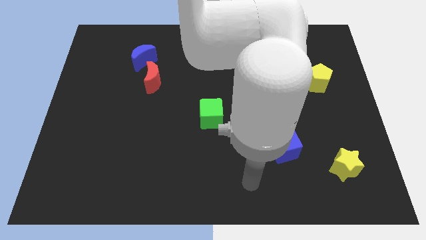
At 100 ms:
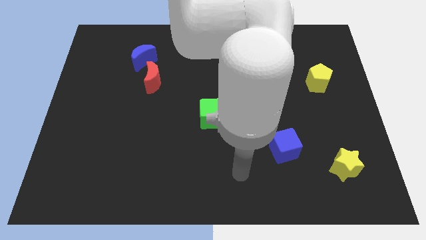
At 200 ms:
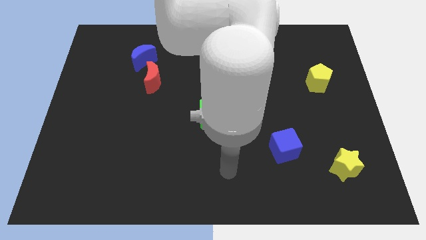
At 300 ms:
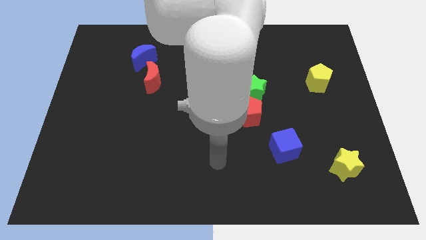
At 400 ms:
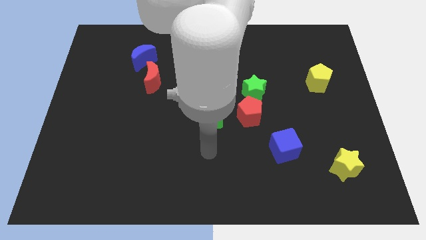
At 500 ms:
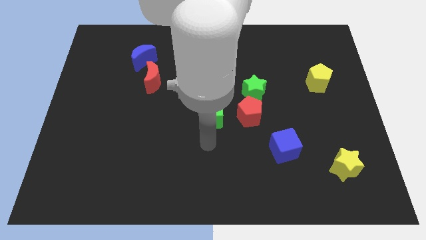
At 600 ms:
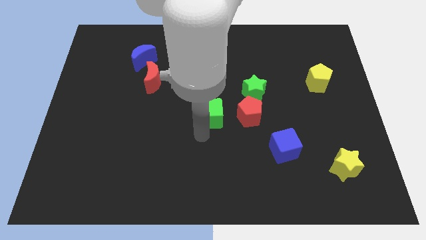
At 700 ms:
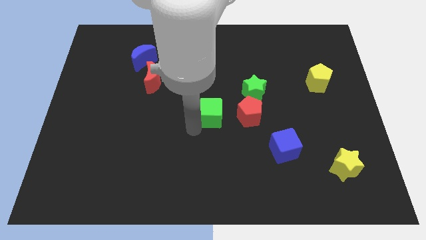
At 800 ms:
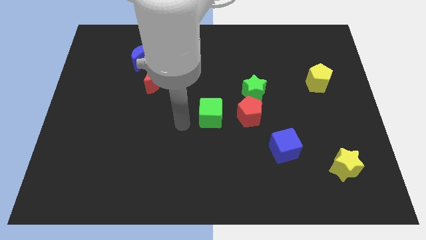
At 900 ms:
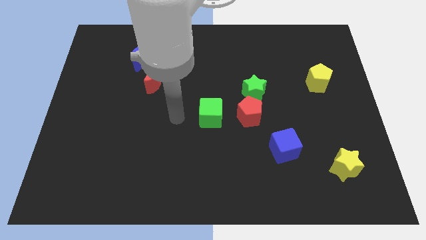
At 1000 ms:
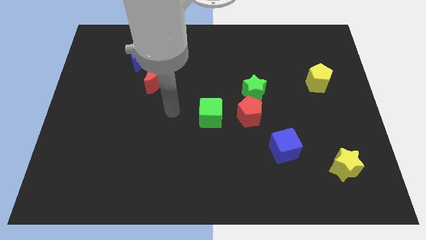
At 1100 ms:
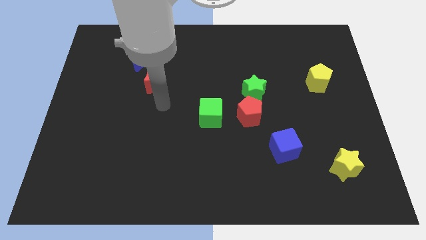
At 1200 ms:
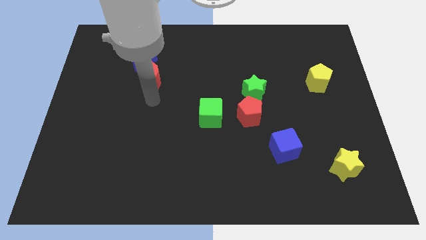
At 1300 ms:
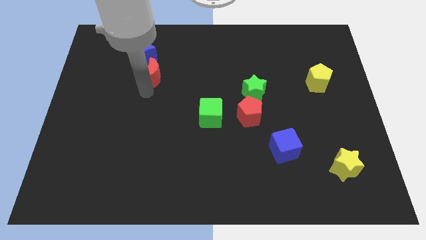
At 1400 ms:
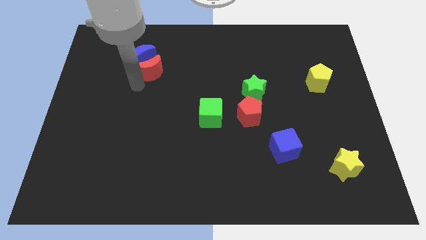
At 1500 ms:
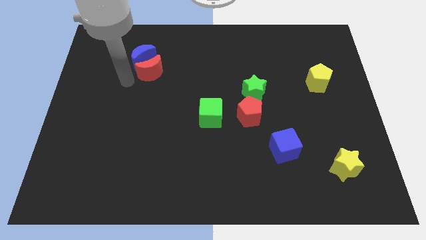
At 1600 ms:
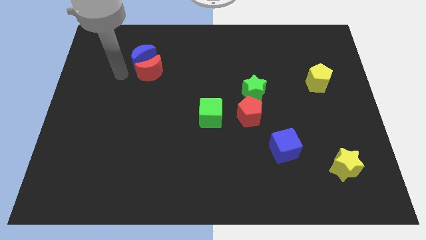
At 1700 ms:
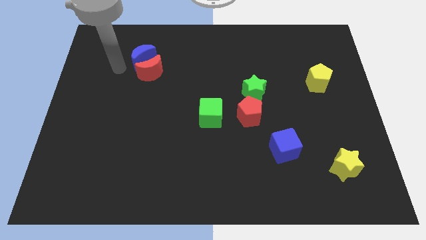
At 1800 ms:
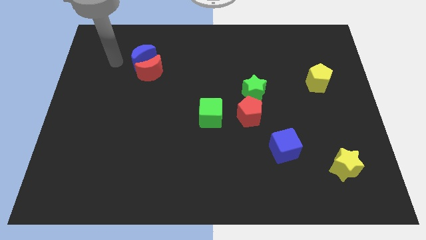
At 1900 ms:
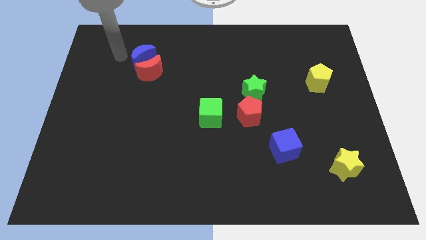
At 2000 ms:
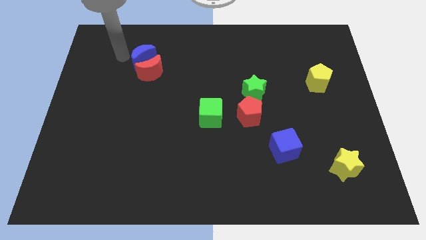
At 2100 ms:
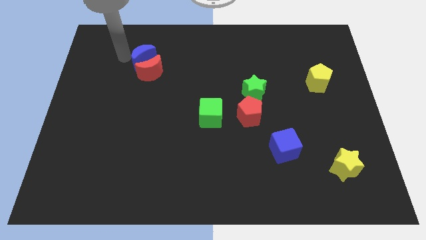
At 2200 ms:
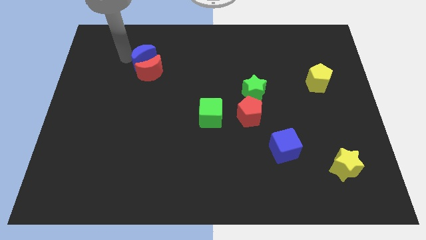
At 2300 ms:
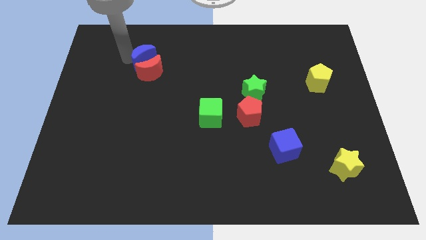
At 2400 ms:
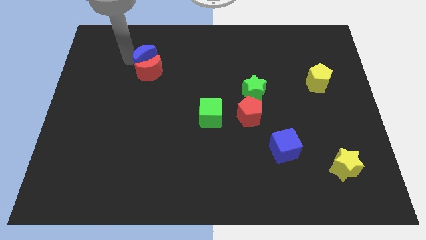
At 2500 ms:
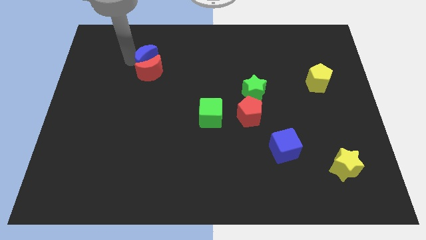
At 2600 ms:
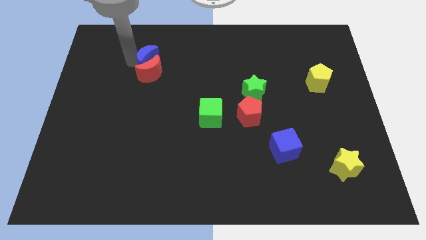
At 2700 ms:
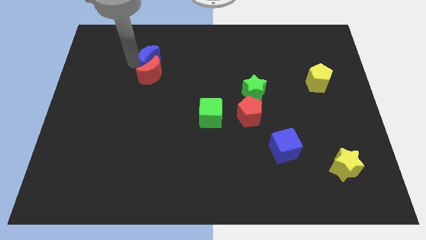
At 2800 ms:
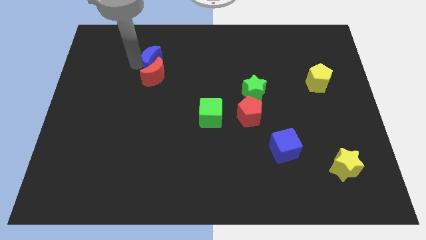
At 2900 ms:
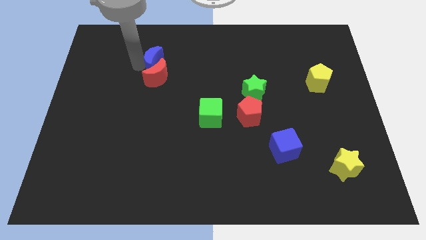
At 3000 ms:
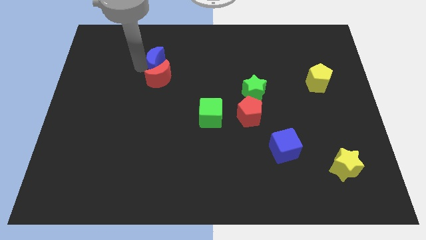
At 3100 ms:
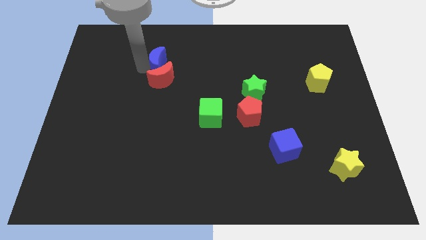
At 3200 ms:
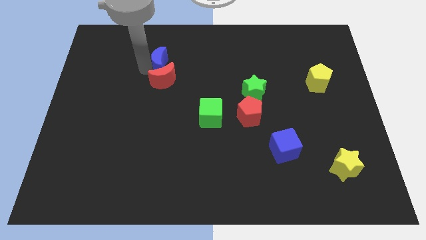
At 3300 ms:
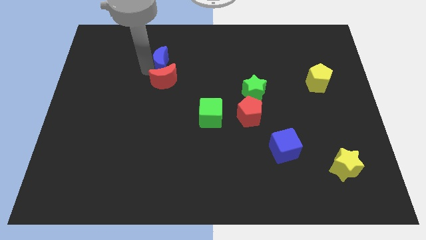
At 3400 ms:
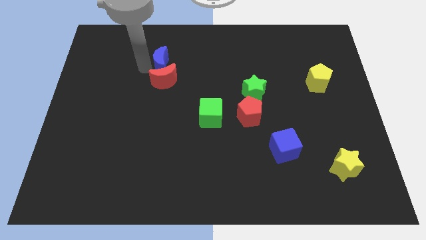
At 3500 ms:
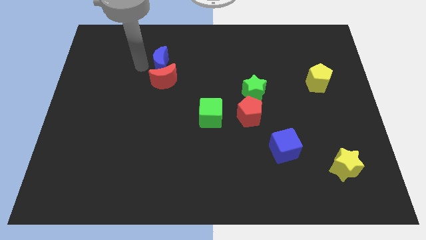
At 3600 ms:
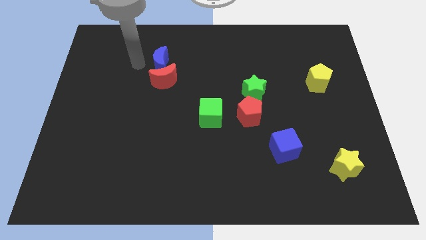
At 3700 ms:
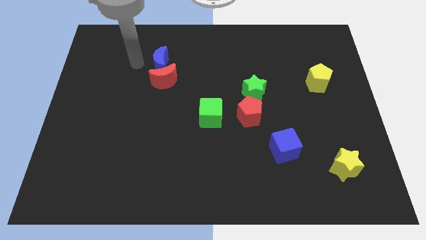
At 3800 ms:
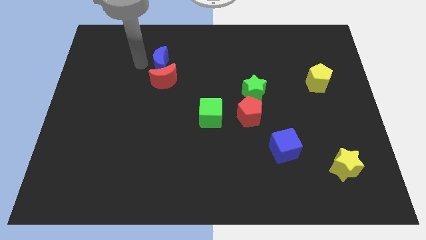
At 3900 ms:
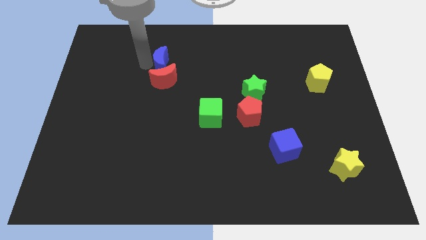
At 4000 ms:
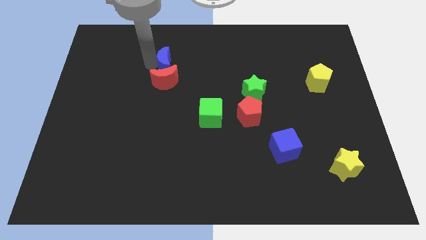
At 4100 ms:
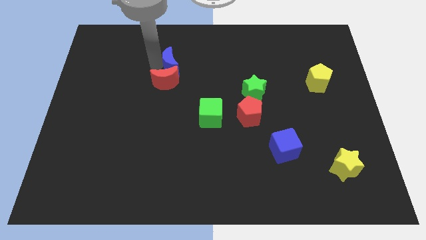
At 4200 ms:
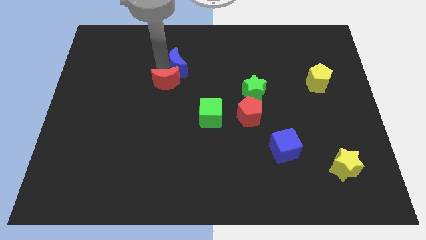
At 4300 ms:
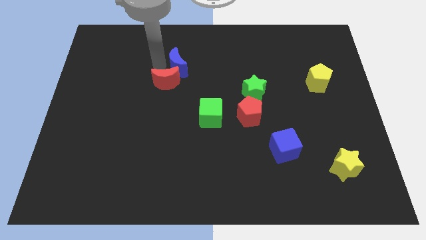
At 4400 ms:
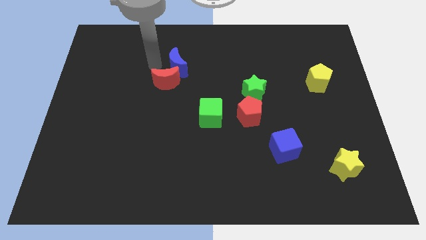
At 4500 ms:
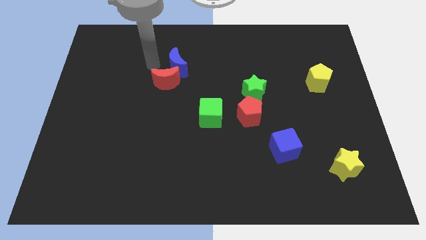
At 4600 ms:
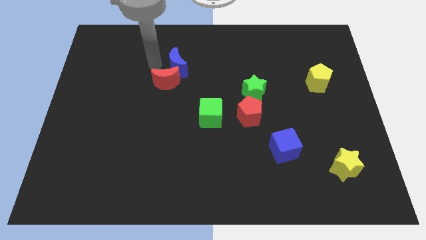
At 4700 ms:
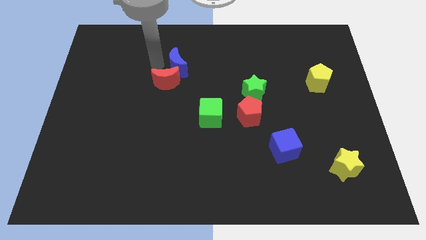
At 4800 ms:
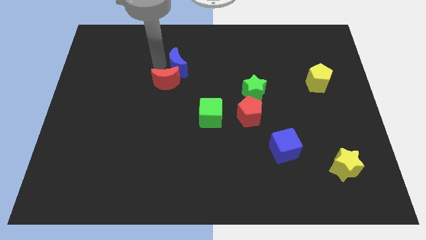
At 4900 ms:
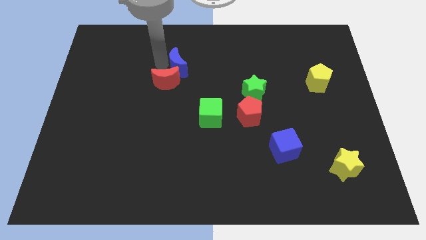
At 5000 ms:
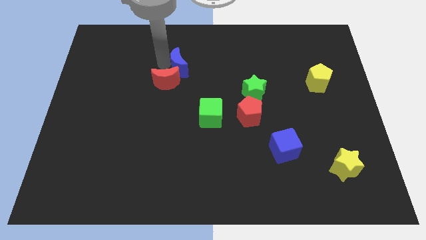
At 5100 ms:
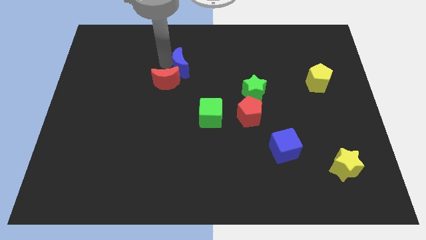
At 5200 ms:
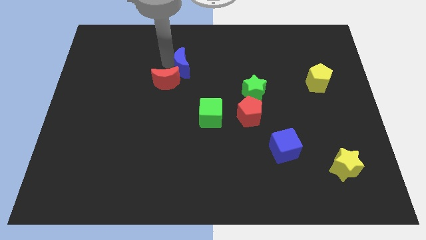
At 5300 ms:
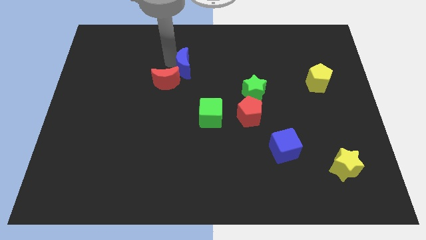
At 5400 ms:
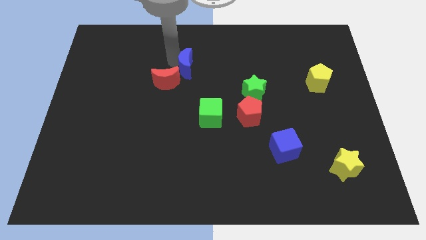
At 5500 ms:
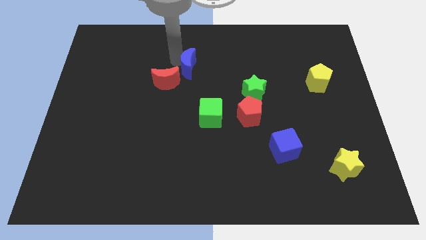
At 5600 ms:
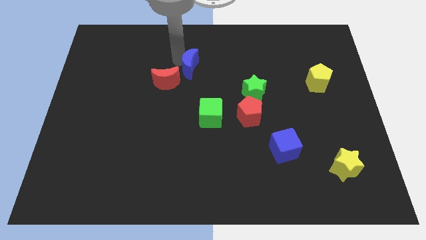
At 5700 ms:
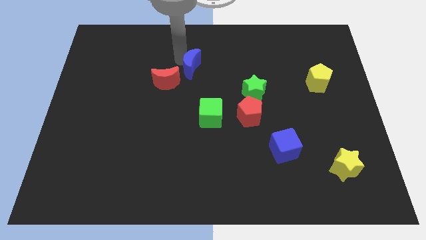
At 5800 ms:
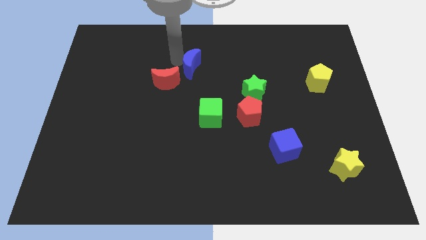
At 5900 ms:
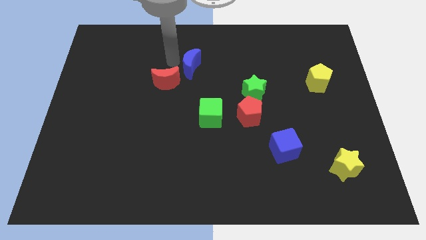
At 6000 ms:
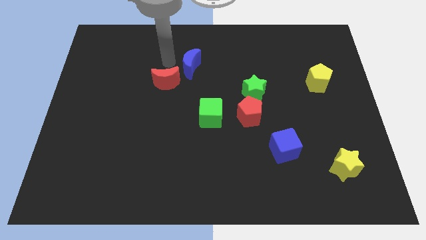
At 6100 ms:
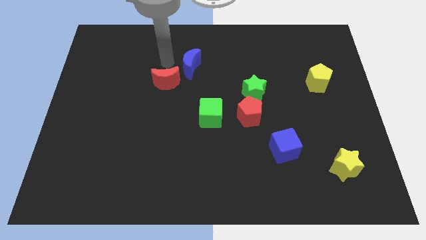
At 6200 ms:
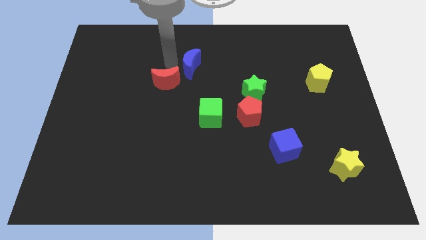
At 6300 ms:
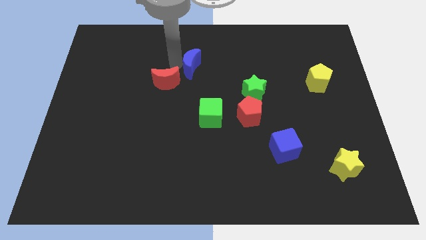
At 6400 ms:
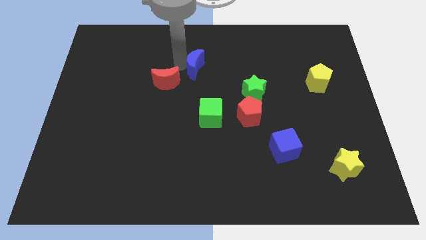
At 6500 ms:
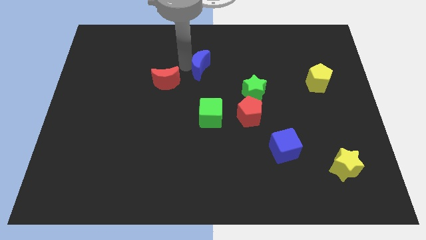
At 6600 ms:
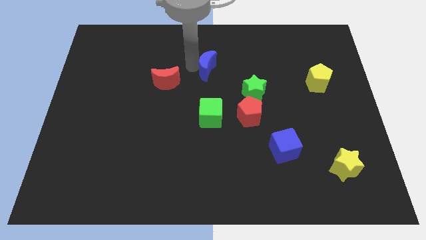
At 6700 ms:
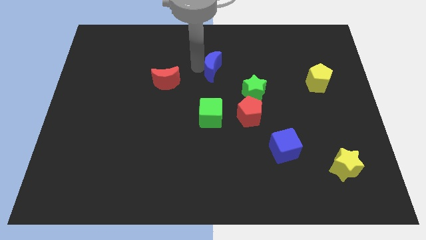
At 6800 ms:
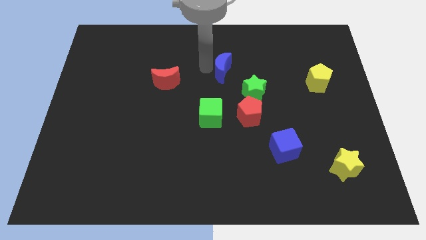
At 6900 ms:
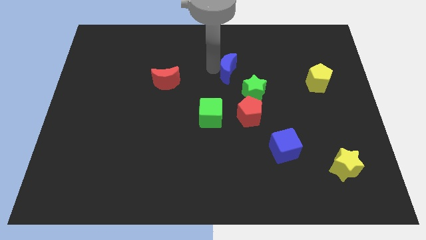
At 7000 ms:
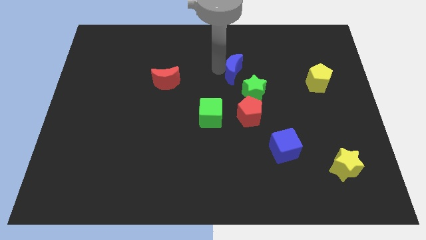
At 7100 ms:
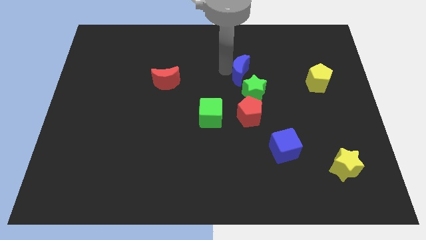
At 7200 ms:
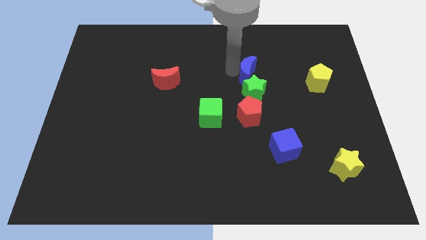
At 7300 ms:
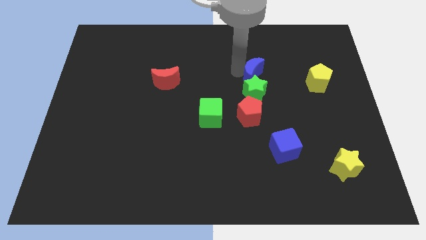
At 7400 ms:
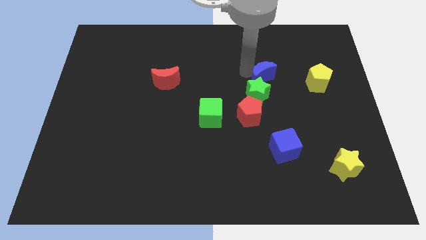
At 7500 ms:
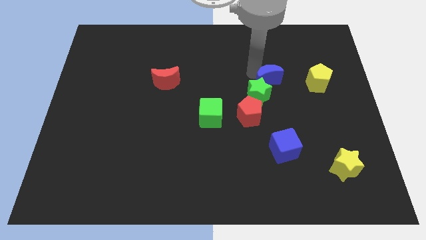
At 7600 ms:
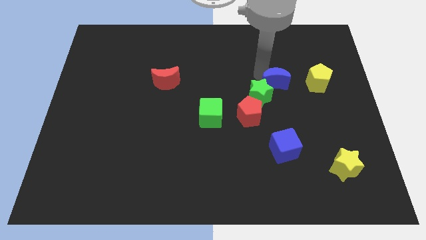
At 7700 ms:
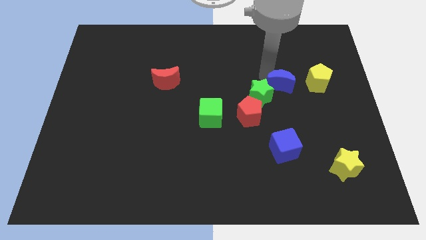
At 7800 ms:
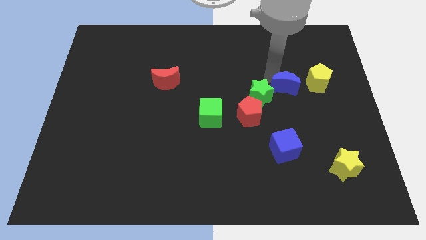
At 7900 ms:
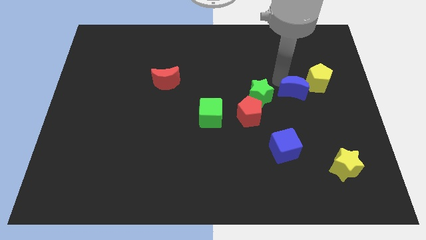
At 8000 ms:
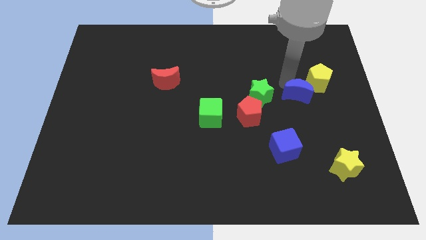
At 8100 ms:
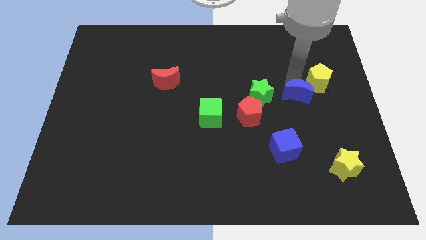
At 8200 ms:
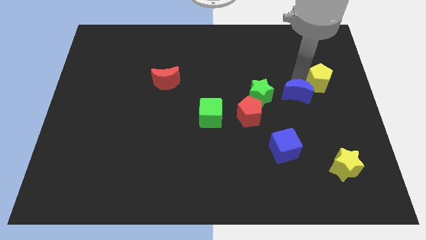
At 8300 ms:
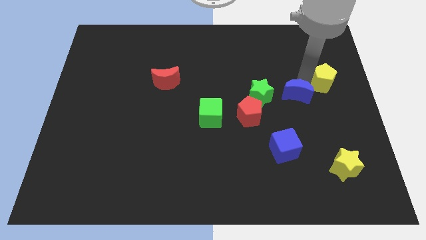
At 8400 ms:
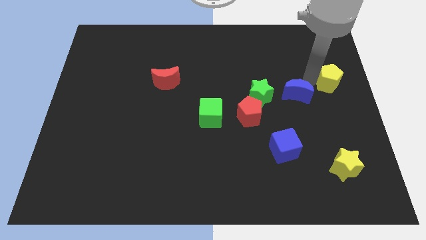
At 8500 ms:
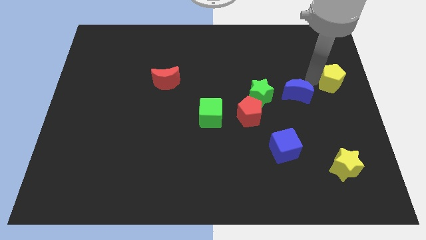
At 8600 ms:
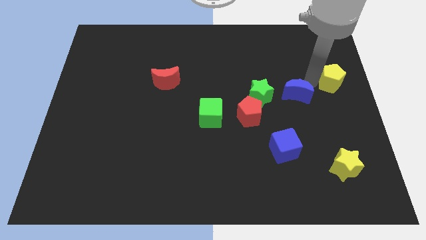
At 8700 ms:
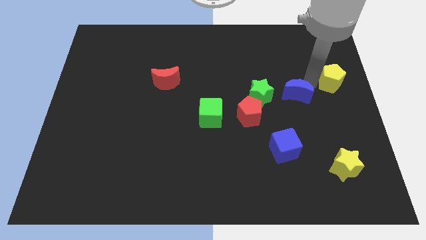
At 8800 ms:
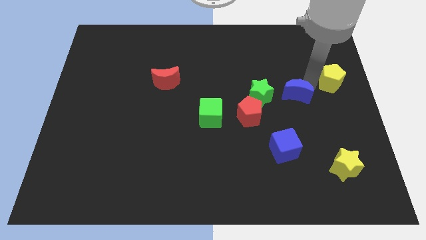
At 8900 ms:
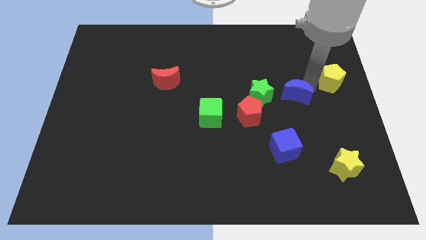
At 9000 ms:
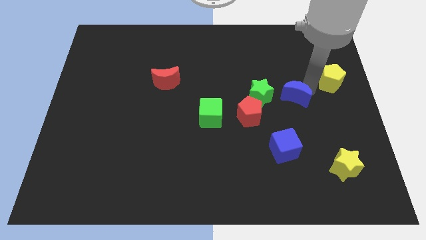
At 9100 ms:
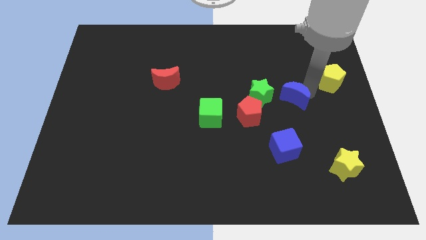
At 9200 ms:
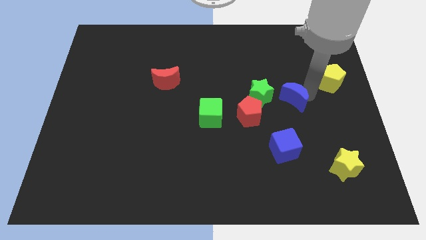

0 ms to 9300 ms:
slide the blue moon above the blue cube
